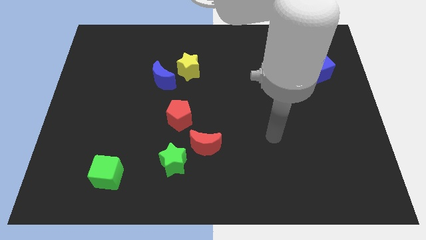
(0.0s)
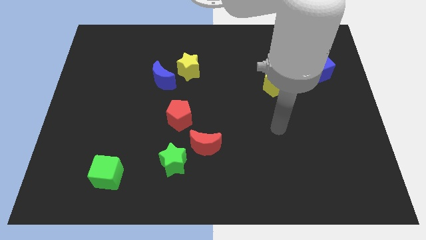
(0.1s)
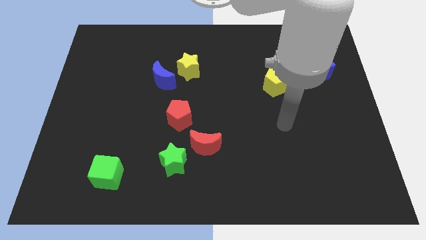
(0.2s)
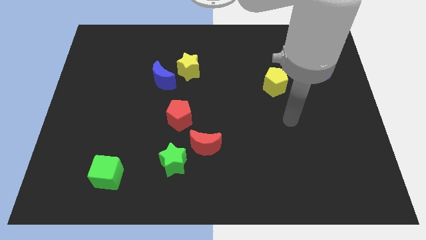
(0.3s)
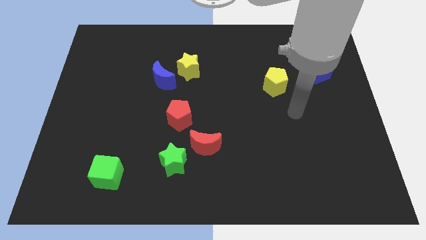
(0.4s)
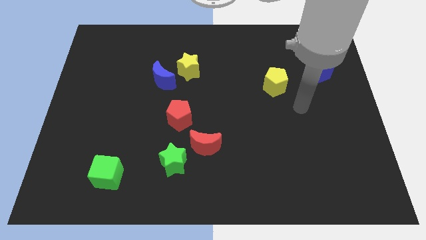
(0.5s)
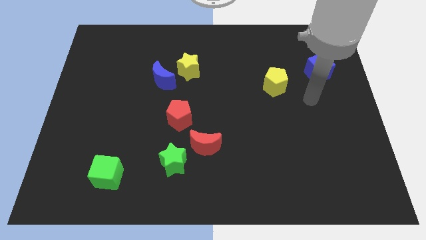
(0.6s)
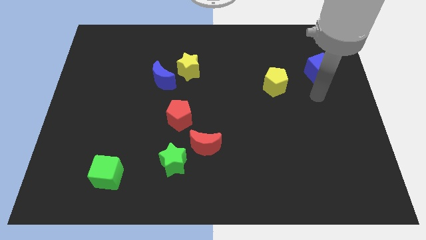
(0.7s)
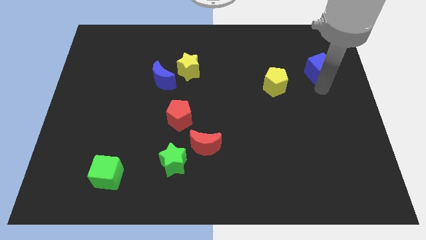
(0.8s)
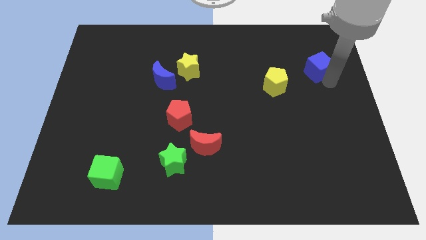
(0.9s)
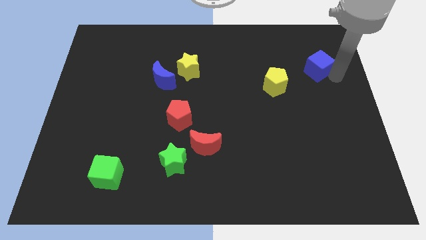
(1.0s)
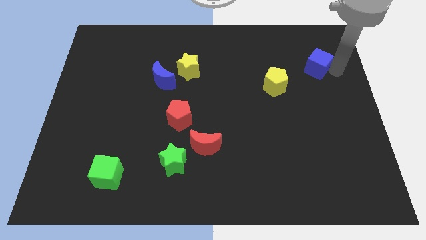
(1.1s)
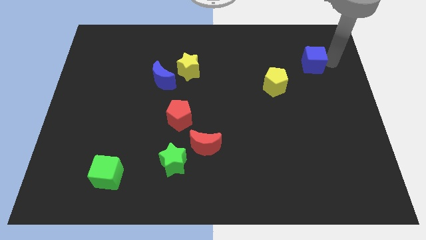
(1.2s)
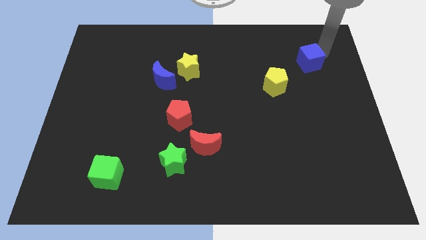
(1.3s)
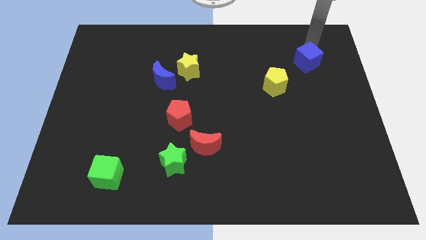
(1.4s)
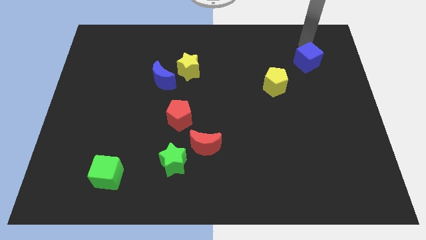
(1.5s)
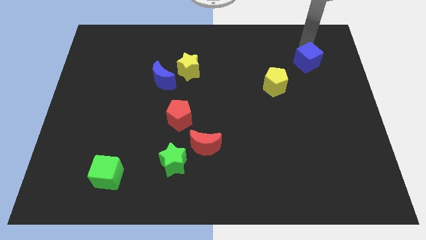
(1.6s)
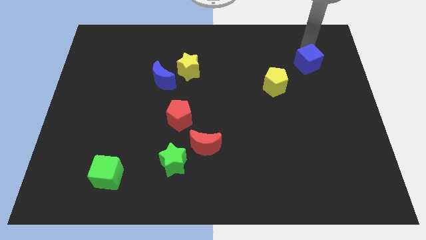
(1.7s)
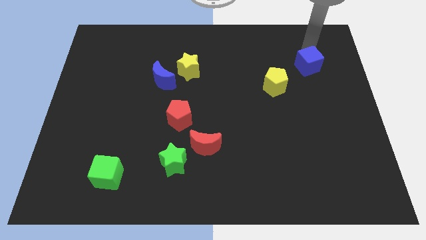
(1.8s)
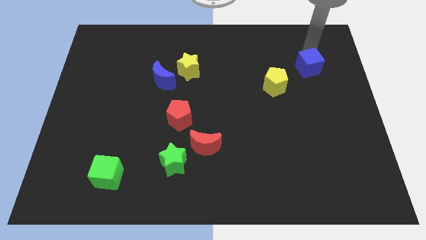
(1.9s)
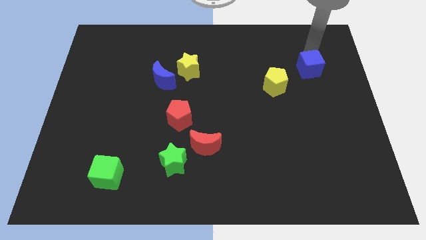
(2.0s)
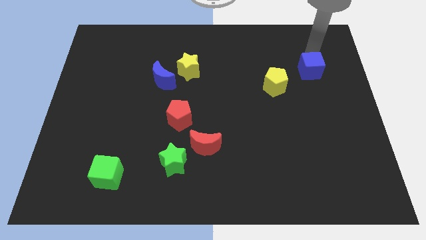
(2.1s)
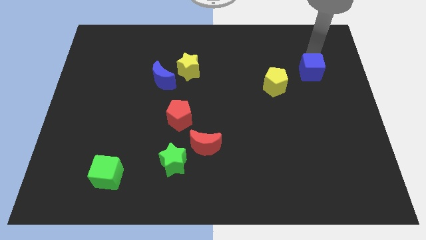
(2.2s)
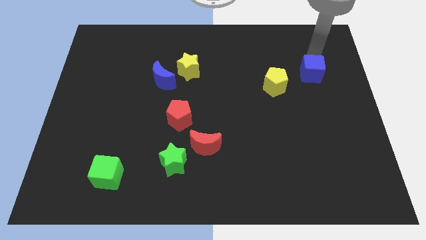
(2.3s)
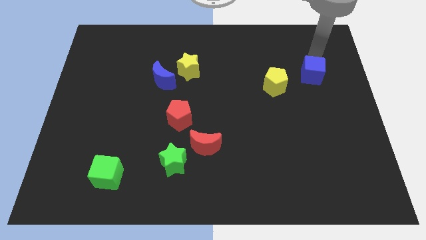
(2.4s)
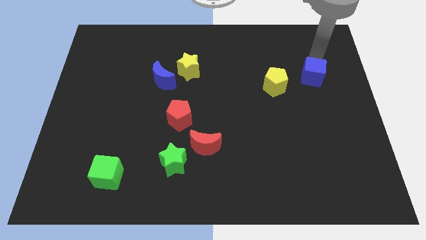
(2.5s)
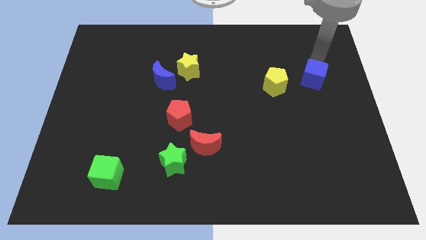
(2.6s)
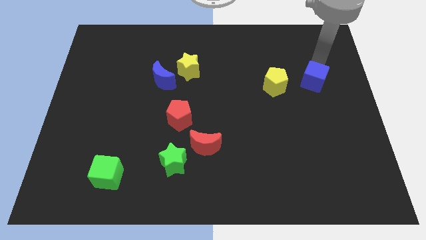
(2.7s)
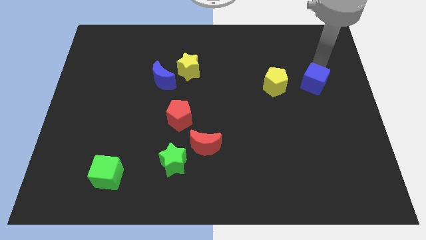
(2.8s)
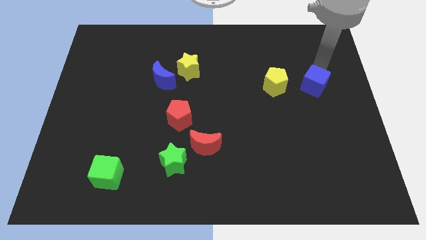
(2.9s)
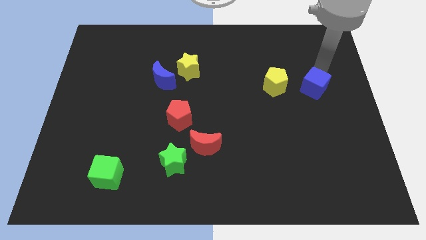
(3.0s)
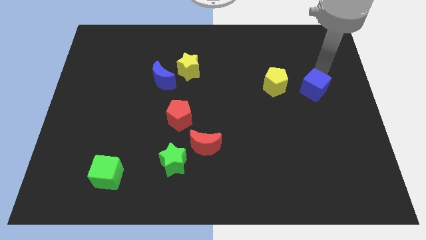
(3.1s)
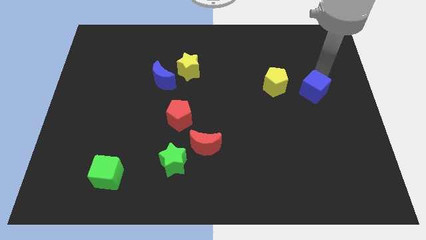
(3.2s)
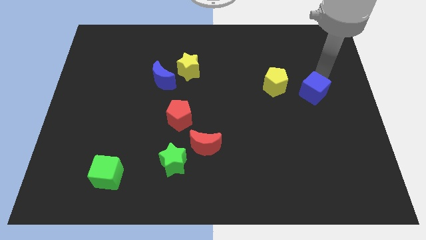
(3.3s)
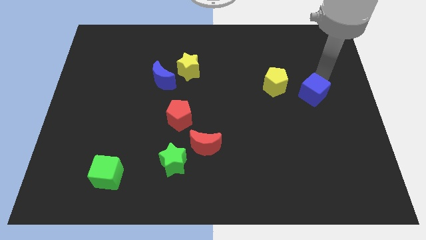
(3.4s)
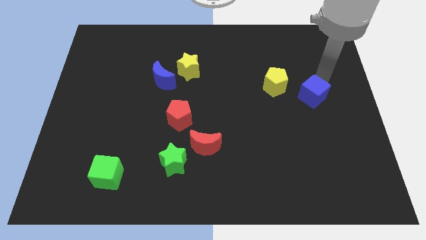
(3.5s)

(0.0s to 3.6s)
push the blue cube diagonally down and to the left a bit

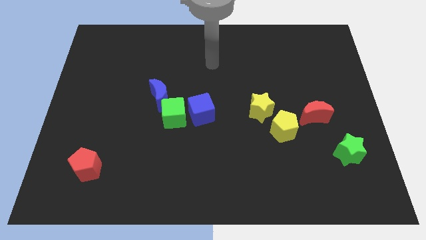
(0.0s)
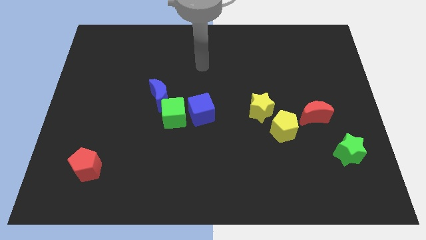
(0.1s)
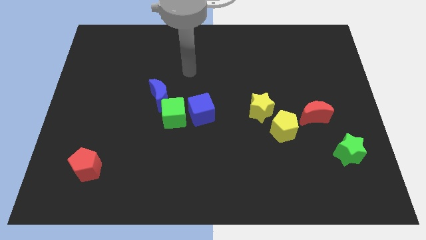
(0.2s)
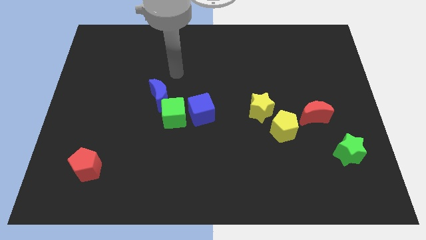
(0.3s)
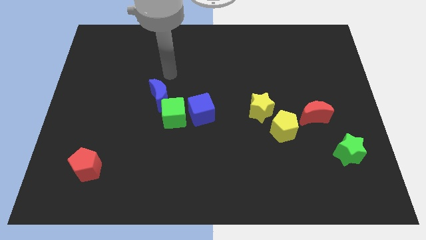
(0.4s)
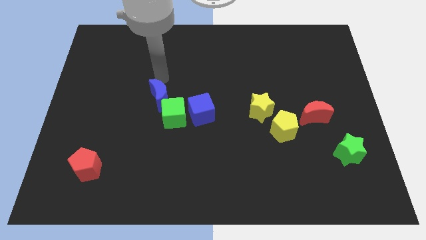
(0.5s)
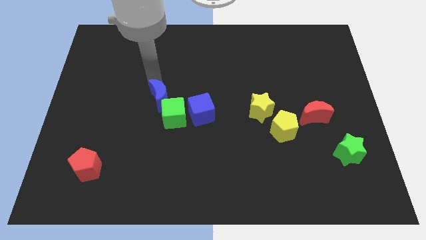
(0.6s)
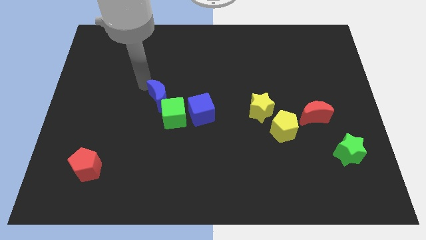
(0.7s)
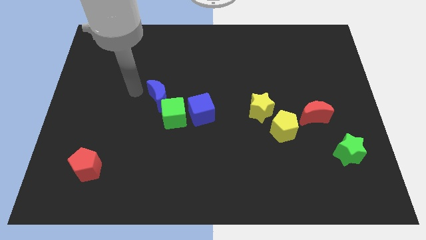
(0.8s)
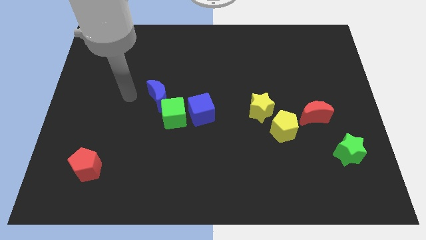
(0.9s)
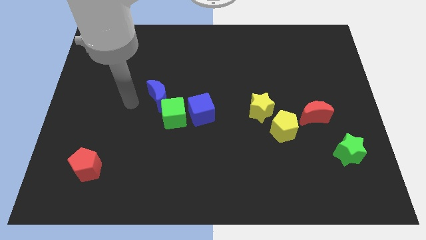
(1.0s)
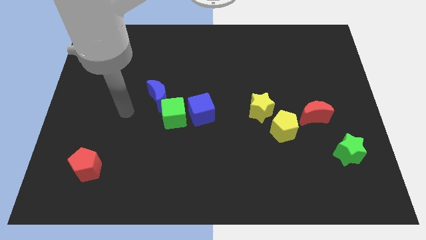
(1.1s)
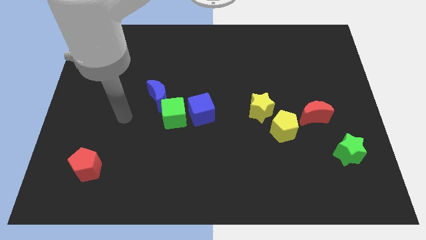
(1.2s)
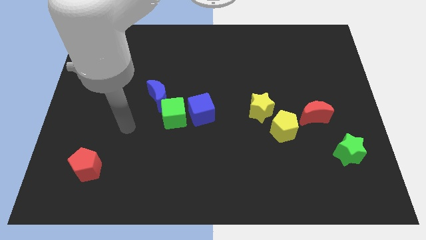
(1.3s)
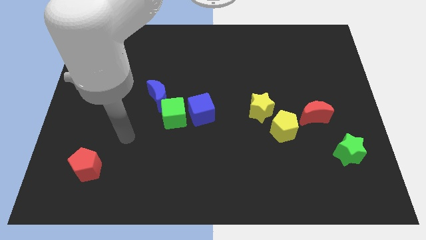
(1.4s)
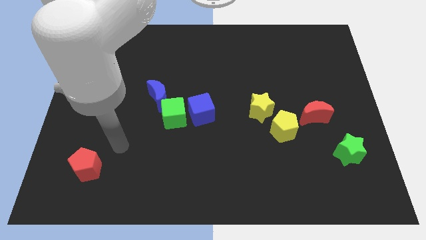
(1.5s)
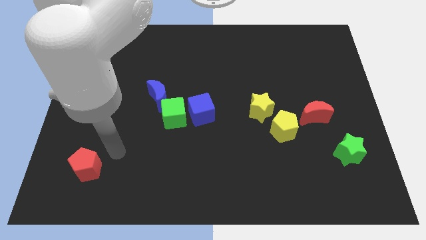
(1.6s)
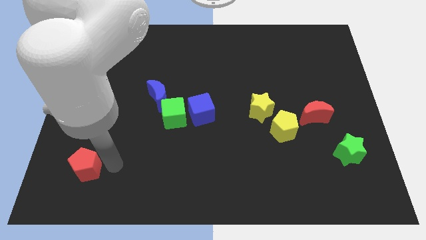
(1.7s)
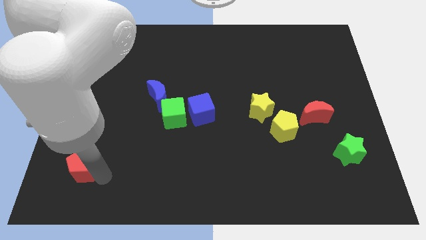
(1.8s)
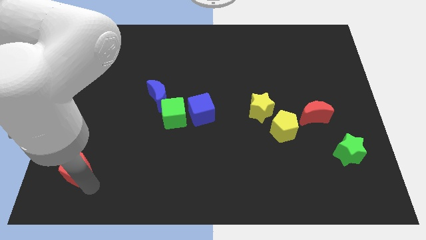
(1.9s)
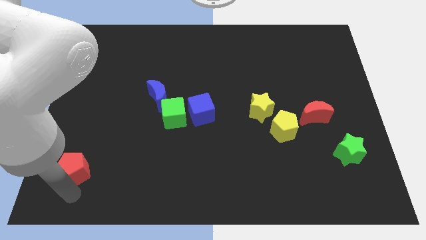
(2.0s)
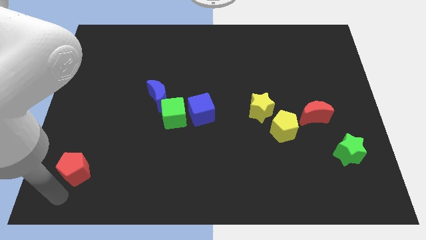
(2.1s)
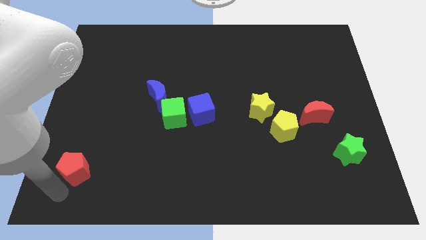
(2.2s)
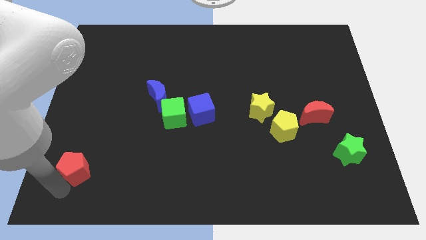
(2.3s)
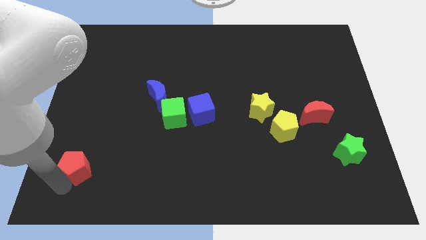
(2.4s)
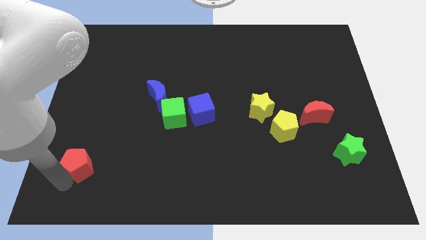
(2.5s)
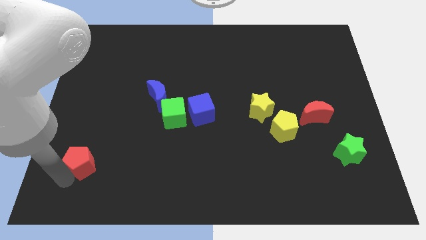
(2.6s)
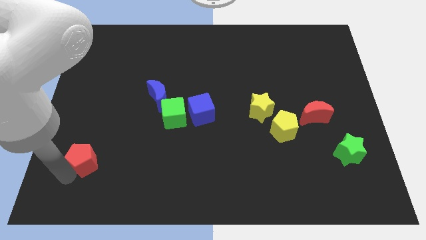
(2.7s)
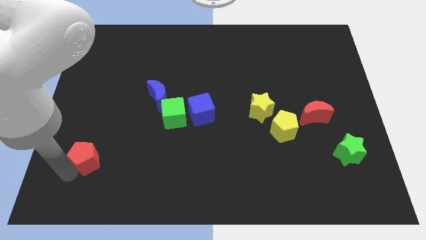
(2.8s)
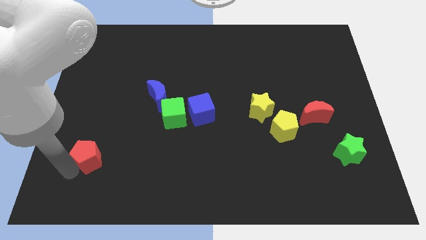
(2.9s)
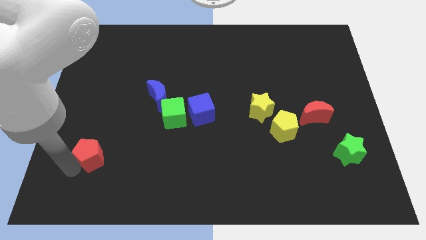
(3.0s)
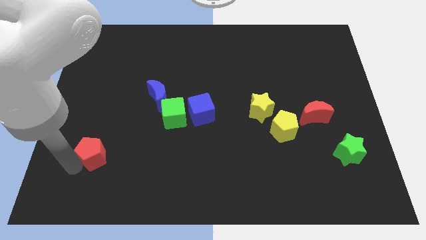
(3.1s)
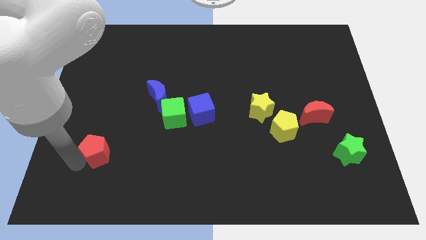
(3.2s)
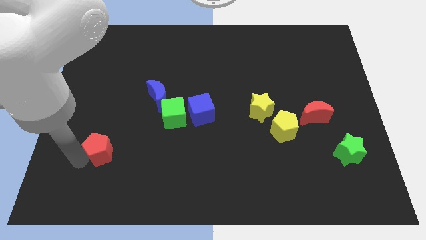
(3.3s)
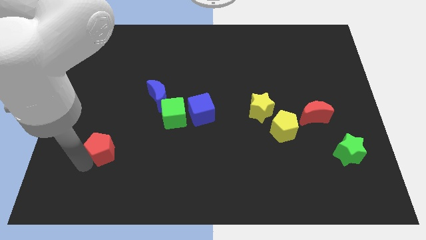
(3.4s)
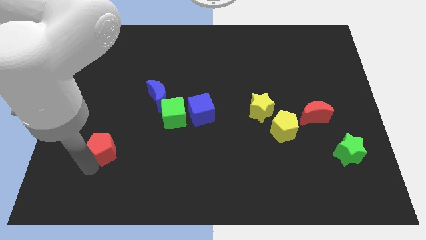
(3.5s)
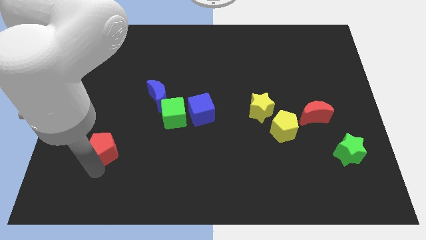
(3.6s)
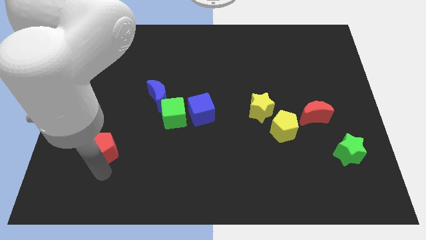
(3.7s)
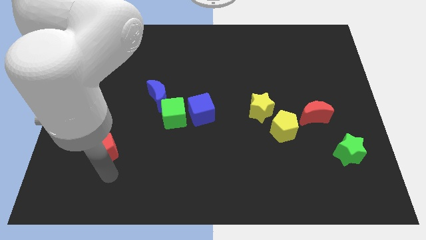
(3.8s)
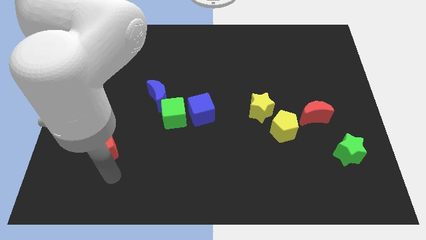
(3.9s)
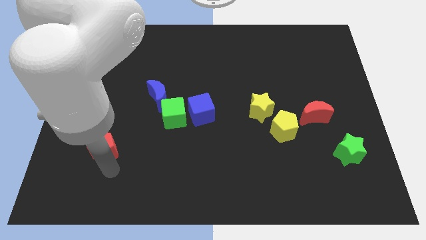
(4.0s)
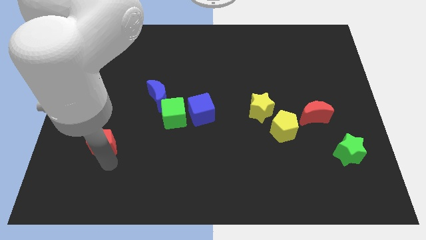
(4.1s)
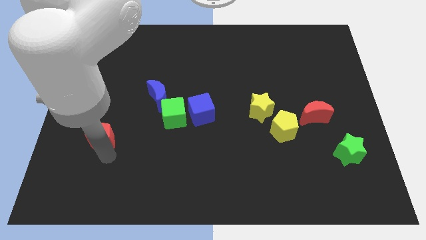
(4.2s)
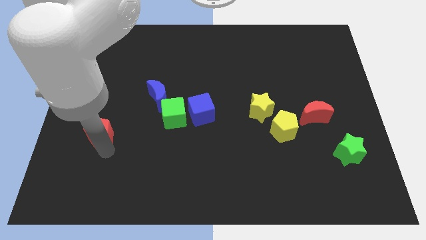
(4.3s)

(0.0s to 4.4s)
slightly push the red pentagon upwards

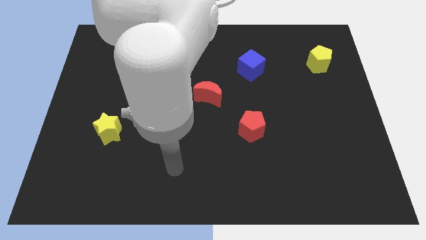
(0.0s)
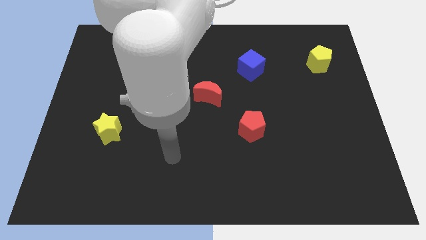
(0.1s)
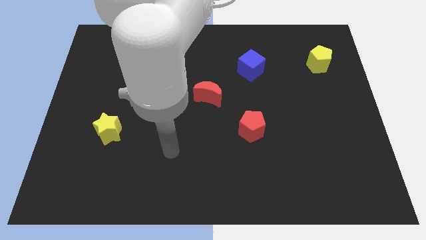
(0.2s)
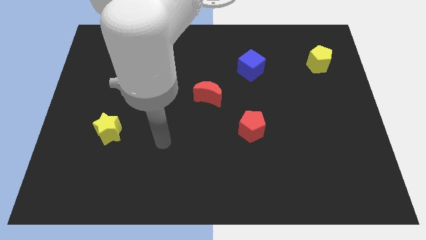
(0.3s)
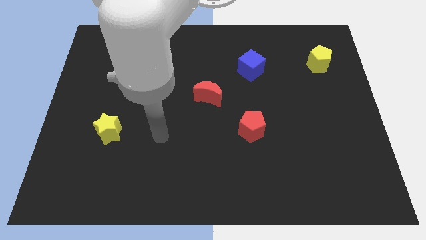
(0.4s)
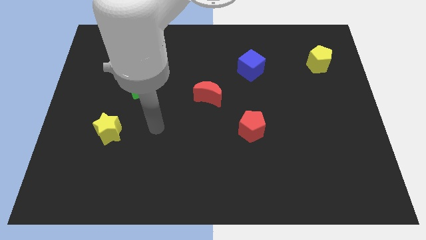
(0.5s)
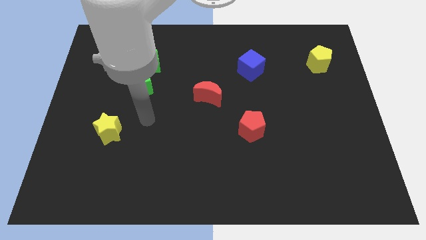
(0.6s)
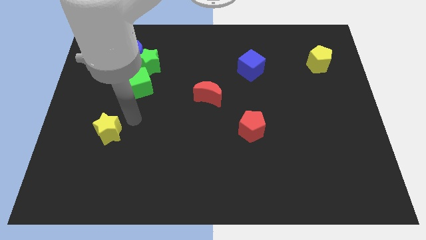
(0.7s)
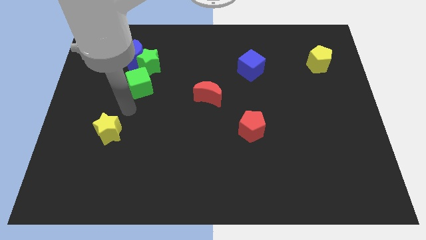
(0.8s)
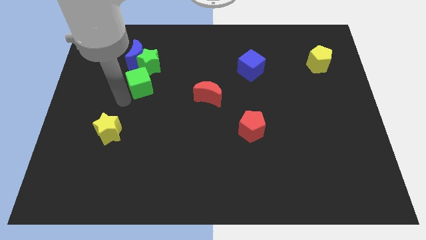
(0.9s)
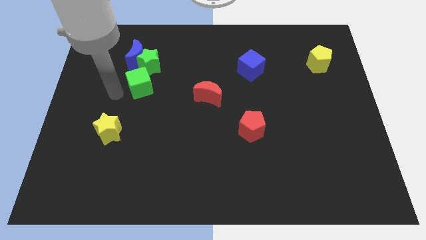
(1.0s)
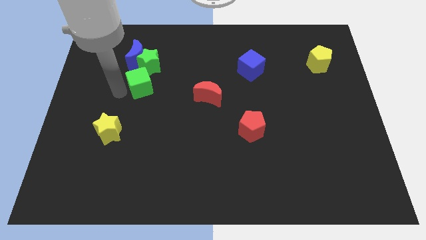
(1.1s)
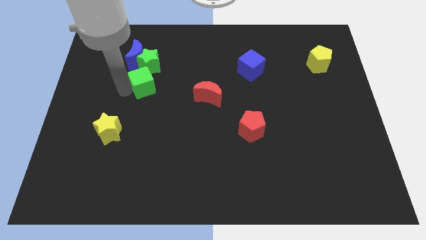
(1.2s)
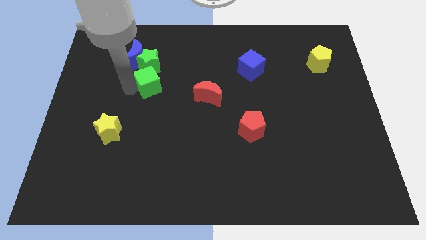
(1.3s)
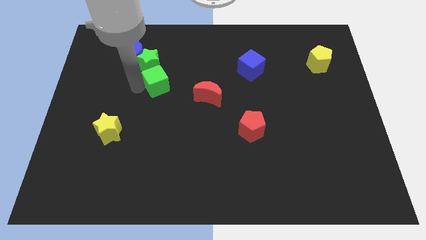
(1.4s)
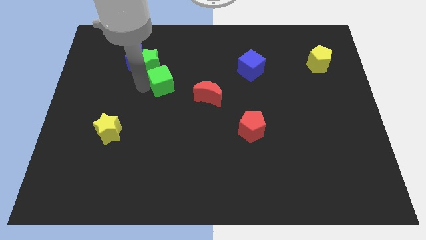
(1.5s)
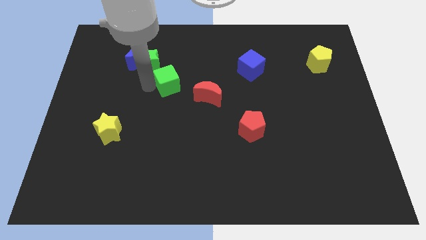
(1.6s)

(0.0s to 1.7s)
move the green cube right a bit
